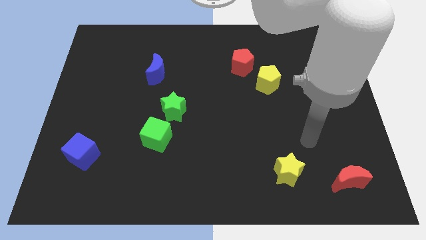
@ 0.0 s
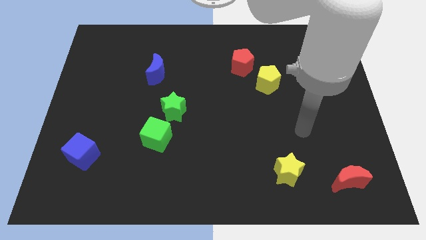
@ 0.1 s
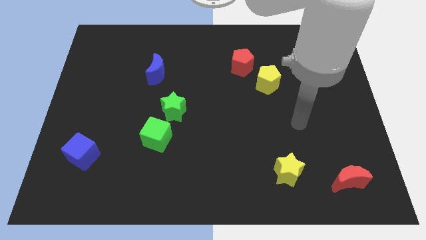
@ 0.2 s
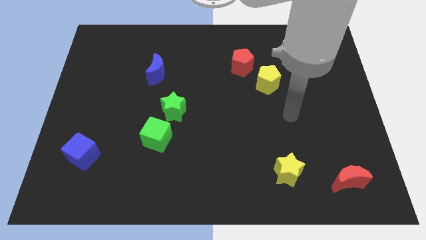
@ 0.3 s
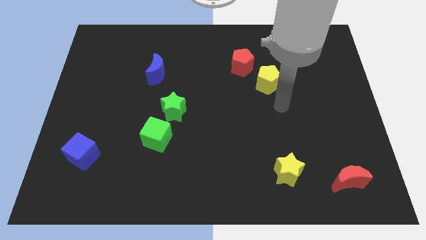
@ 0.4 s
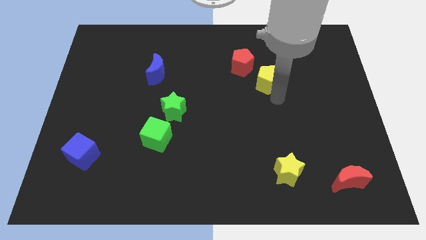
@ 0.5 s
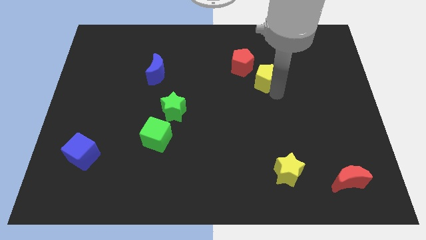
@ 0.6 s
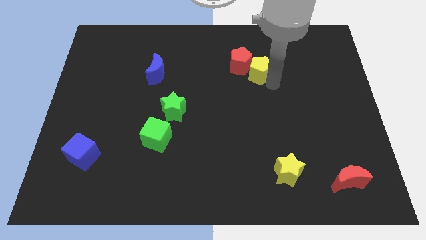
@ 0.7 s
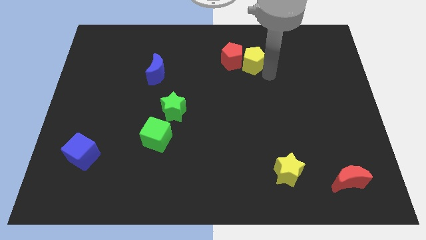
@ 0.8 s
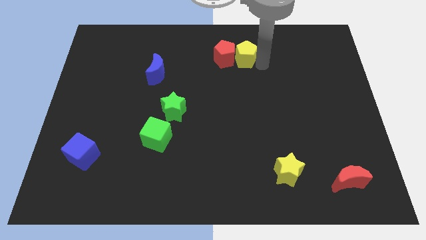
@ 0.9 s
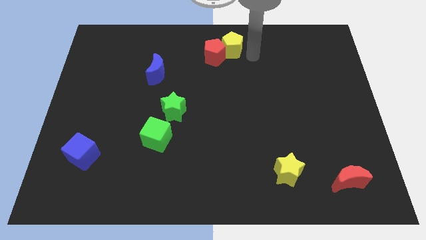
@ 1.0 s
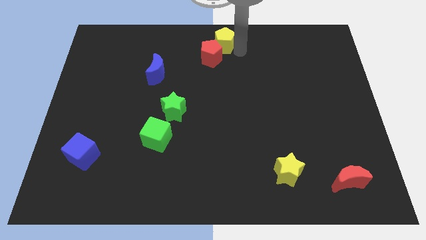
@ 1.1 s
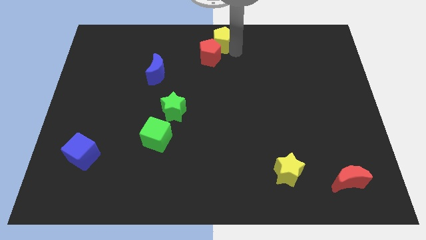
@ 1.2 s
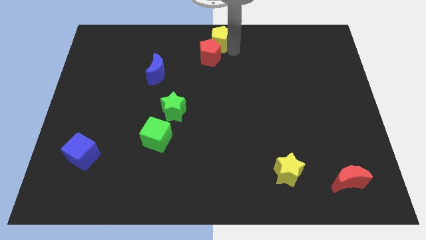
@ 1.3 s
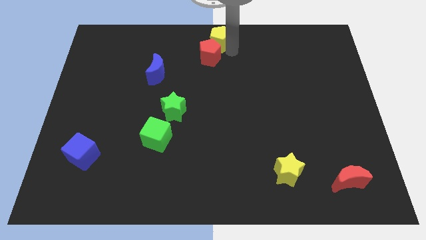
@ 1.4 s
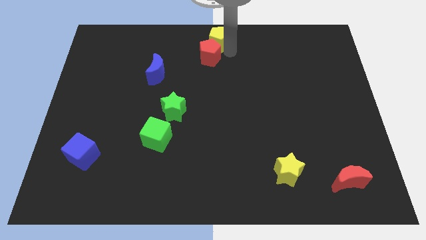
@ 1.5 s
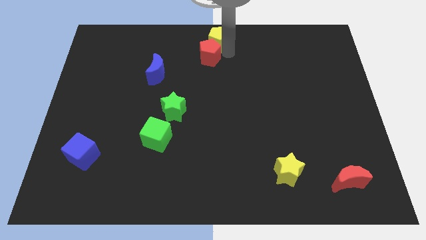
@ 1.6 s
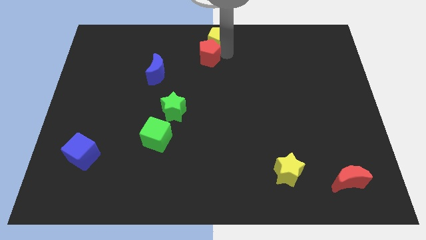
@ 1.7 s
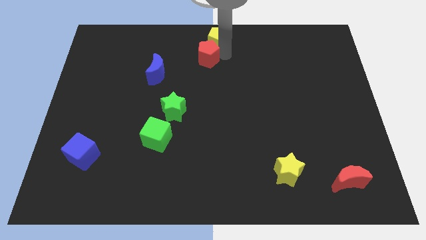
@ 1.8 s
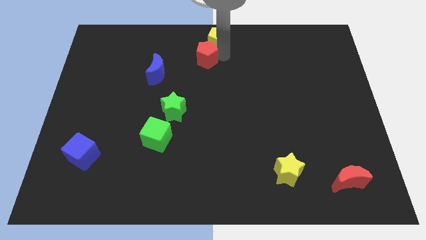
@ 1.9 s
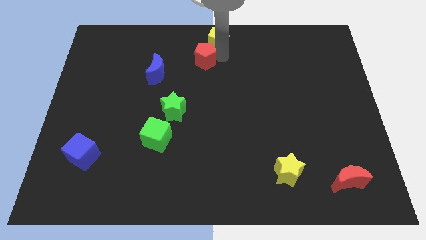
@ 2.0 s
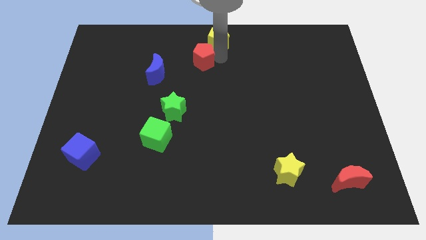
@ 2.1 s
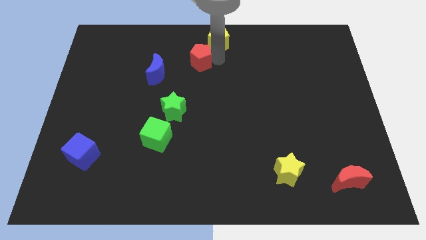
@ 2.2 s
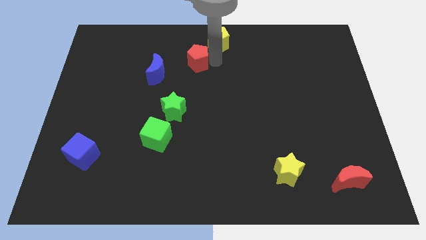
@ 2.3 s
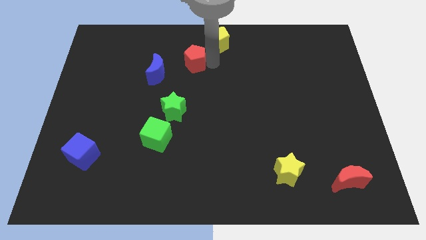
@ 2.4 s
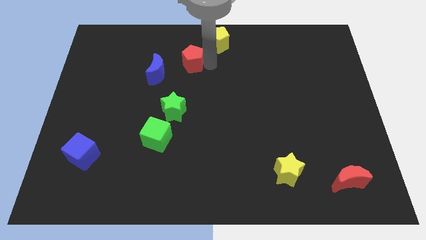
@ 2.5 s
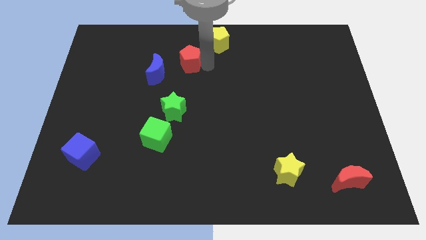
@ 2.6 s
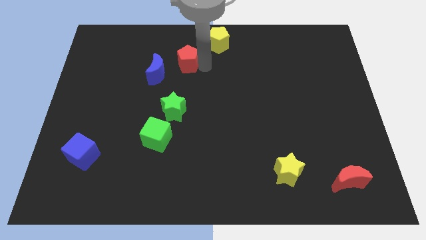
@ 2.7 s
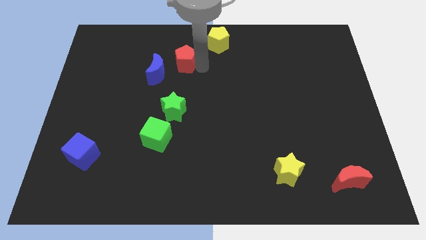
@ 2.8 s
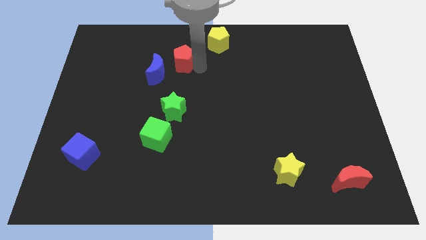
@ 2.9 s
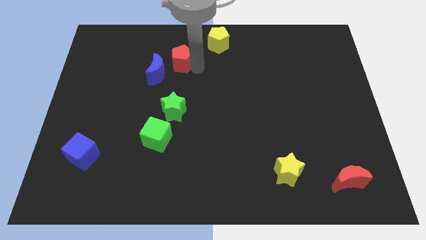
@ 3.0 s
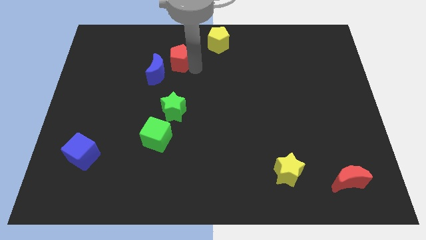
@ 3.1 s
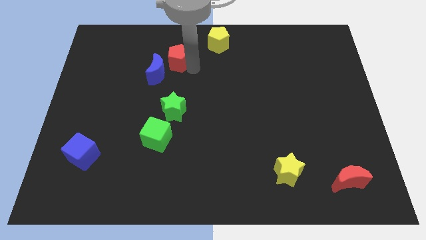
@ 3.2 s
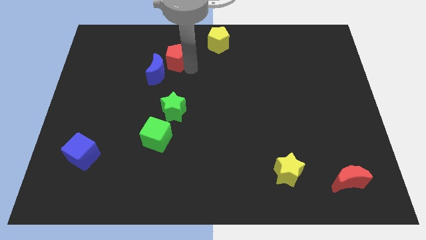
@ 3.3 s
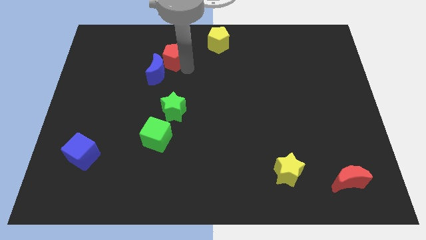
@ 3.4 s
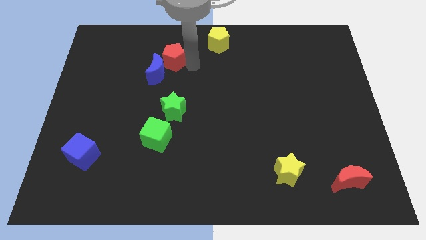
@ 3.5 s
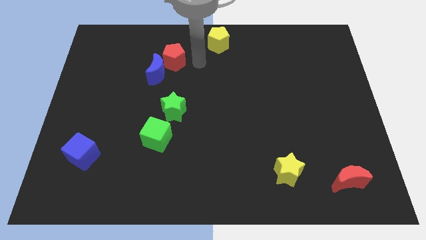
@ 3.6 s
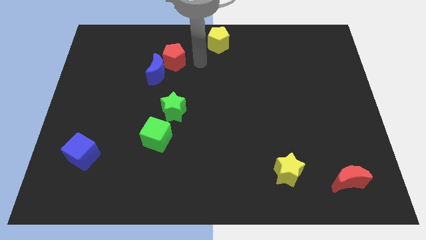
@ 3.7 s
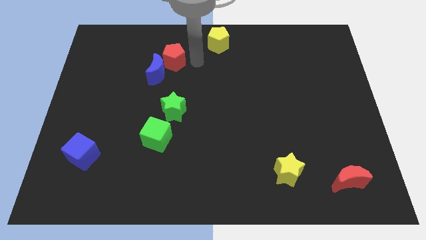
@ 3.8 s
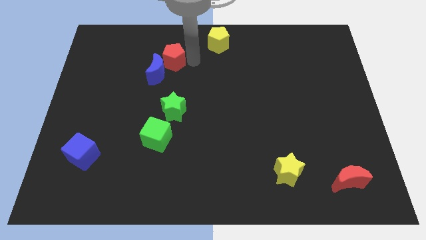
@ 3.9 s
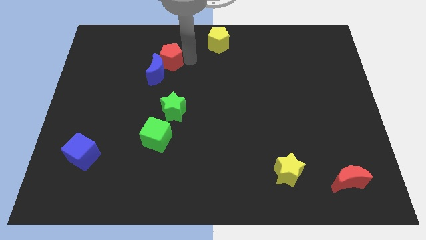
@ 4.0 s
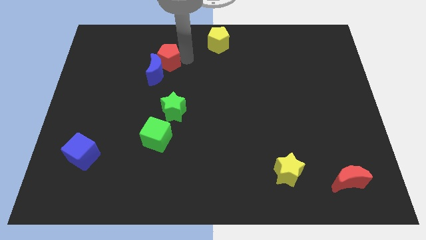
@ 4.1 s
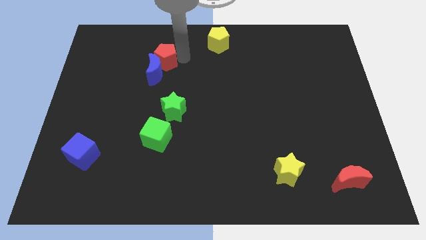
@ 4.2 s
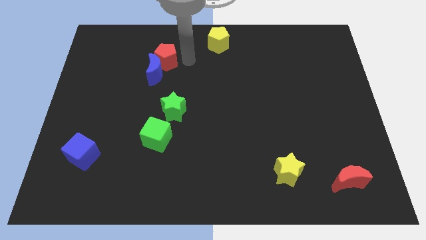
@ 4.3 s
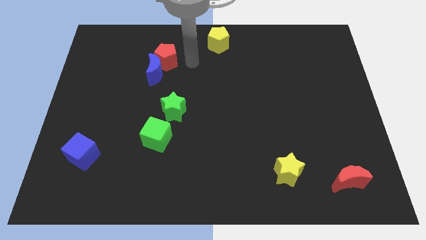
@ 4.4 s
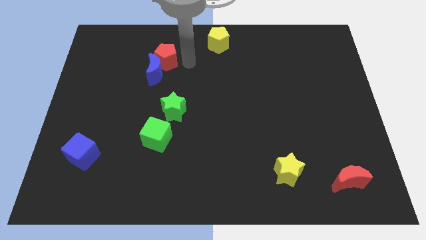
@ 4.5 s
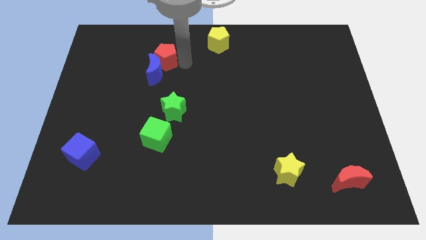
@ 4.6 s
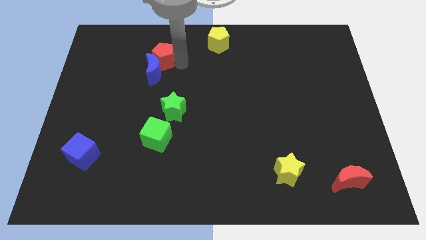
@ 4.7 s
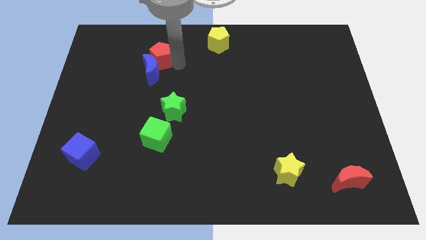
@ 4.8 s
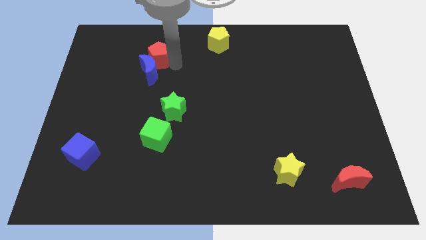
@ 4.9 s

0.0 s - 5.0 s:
push the red pentagon to the top left of the blue moon

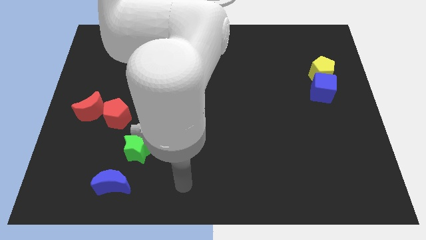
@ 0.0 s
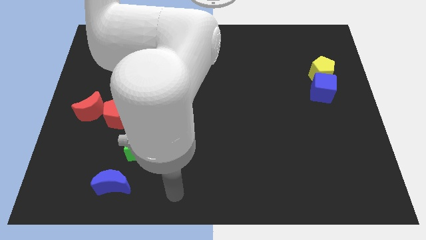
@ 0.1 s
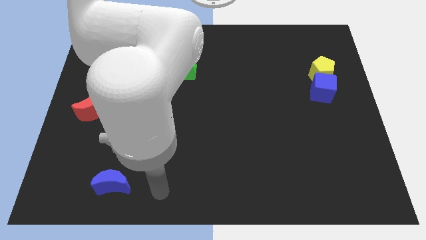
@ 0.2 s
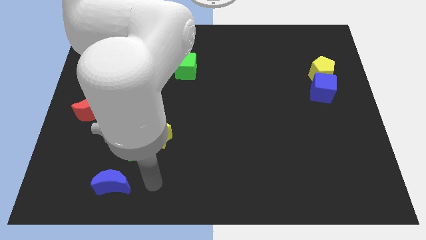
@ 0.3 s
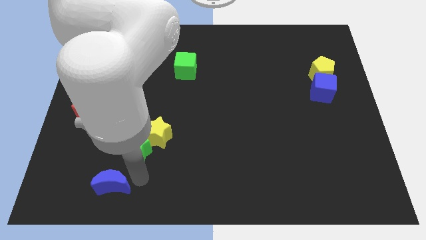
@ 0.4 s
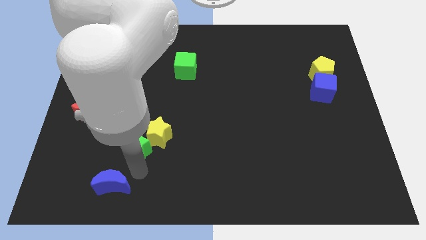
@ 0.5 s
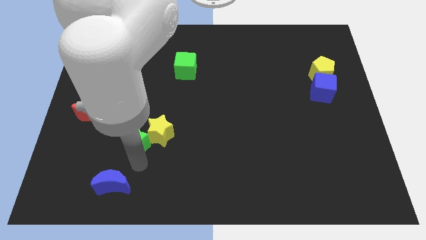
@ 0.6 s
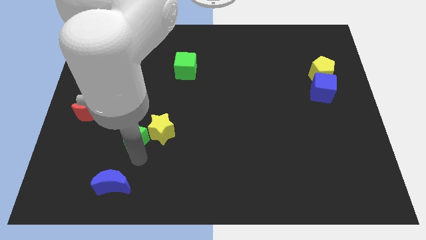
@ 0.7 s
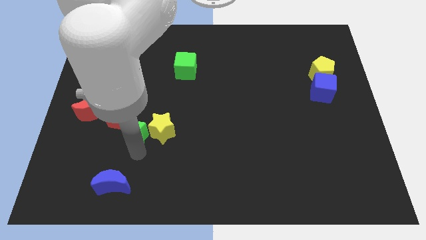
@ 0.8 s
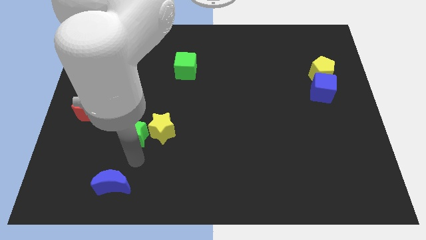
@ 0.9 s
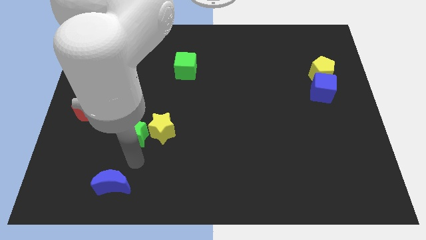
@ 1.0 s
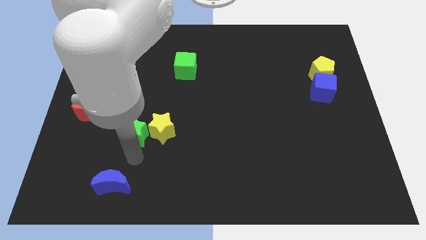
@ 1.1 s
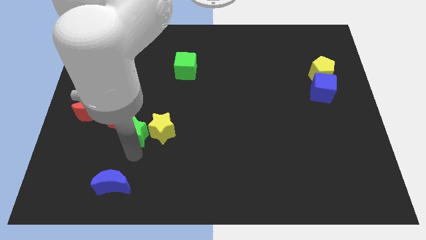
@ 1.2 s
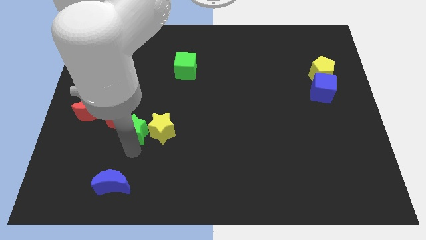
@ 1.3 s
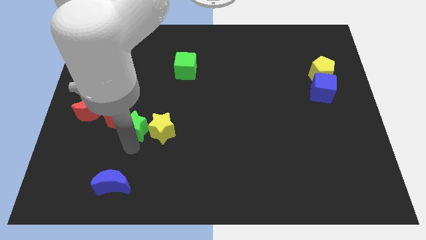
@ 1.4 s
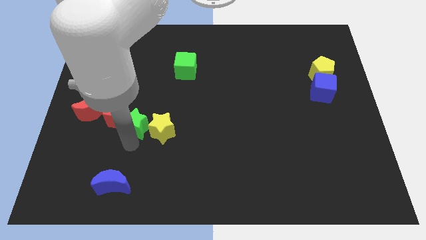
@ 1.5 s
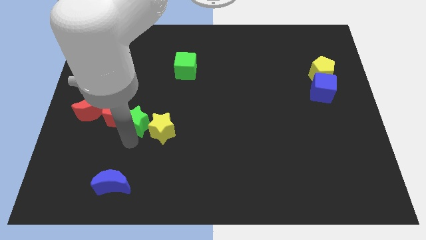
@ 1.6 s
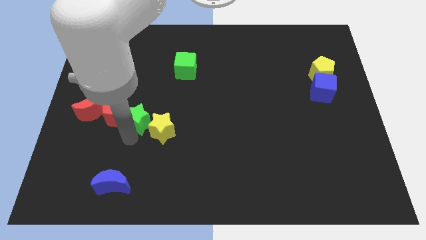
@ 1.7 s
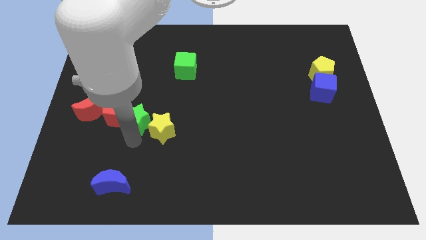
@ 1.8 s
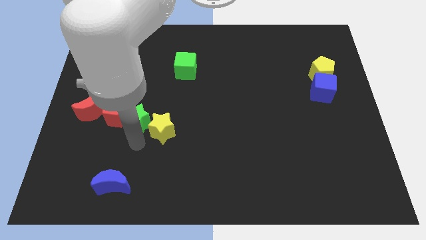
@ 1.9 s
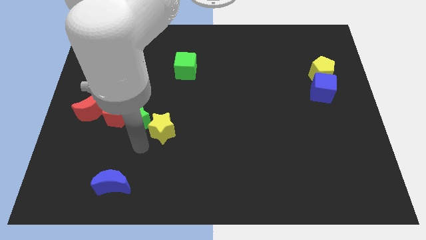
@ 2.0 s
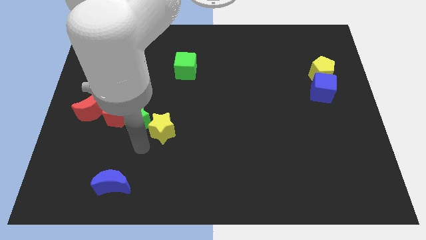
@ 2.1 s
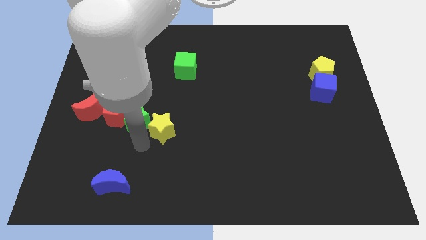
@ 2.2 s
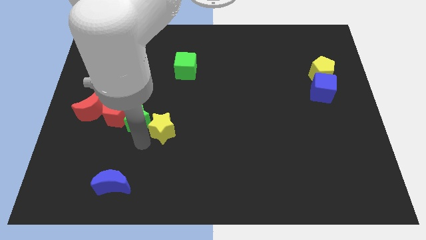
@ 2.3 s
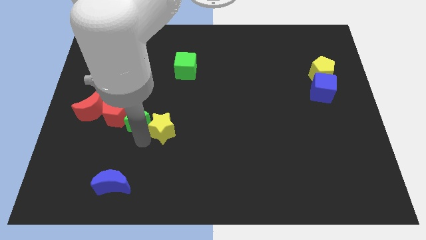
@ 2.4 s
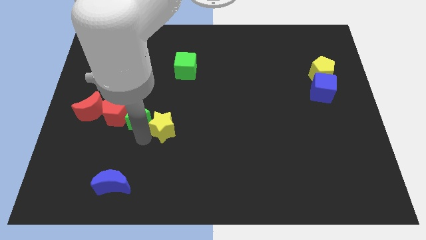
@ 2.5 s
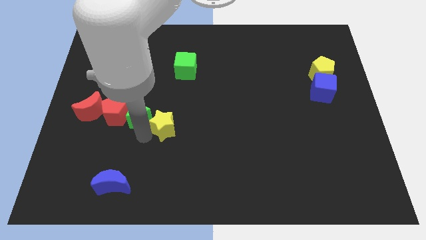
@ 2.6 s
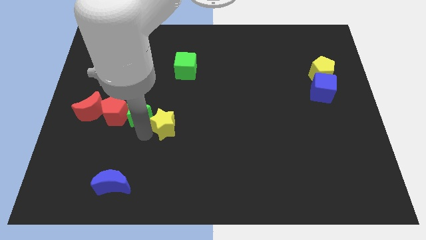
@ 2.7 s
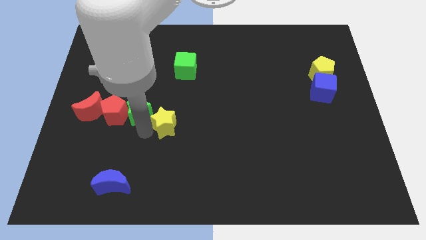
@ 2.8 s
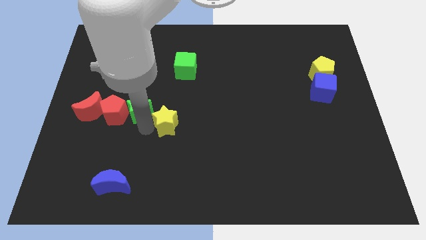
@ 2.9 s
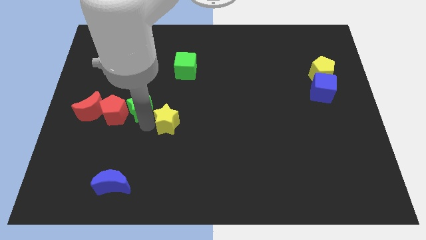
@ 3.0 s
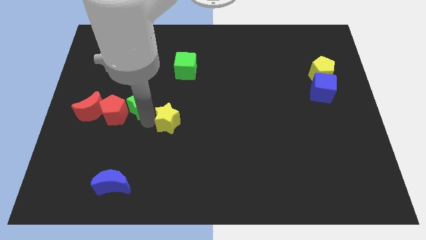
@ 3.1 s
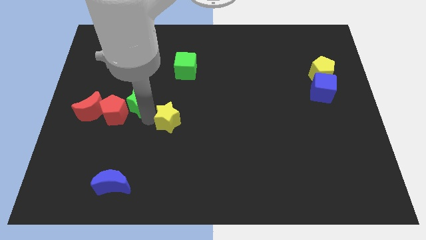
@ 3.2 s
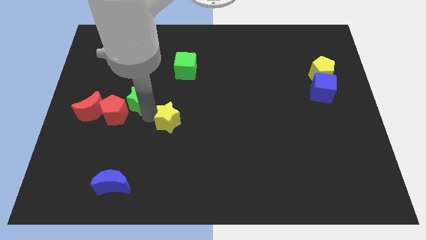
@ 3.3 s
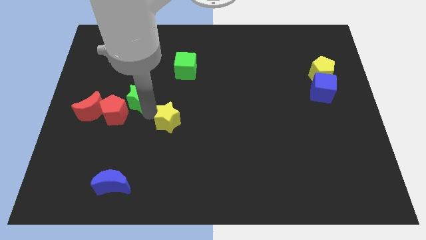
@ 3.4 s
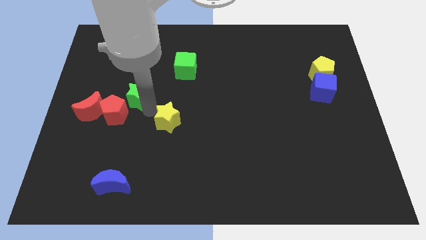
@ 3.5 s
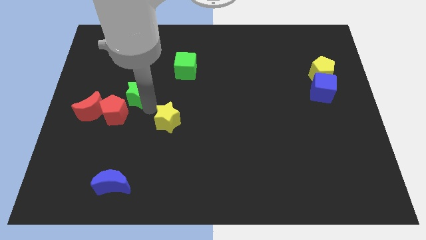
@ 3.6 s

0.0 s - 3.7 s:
put the green star to the top right side of the red moon
